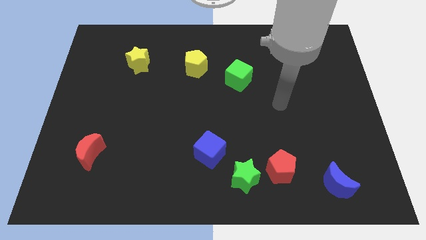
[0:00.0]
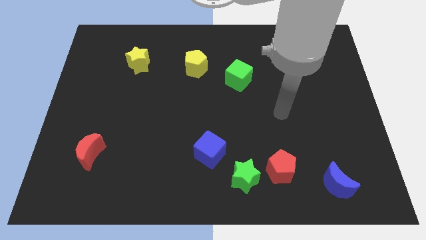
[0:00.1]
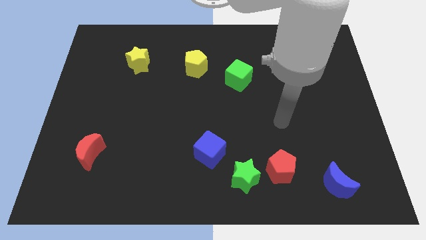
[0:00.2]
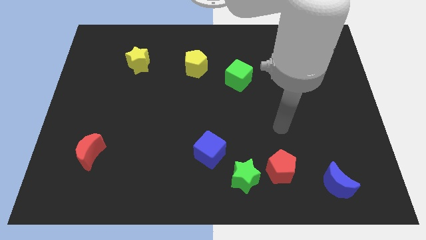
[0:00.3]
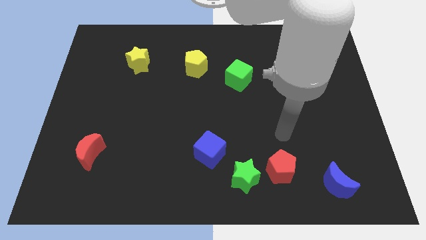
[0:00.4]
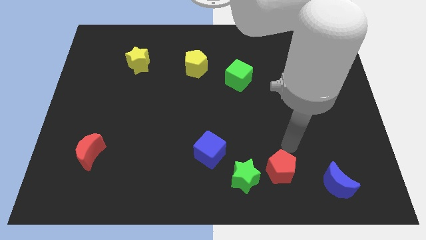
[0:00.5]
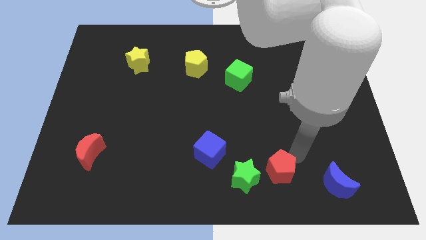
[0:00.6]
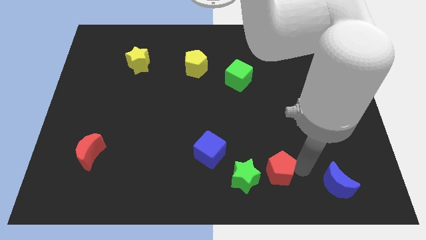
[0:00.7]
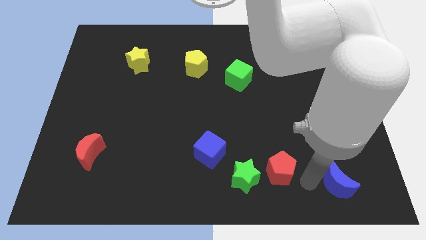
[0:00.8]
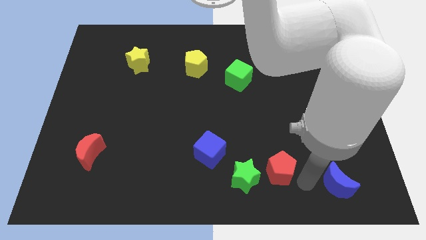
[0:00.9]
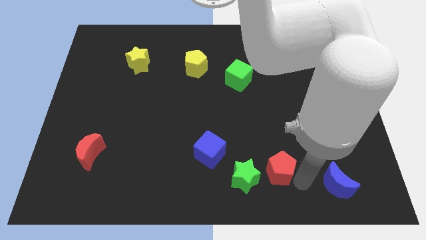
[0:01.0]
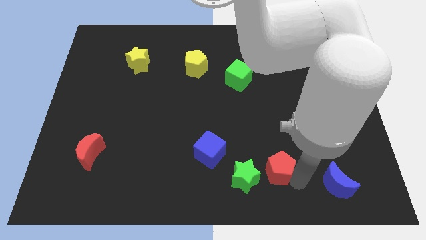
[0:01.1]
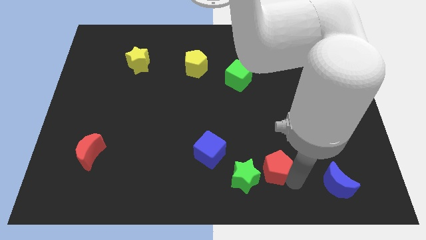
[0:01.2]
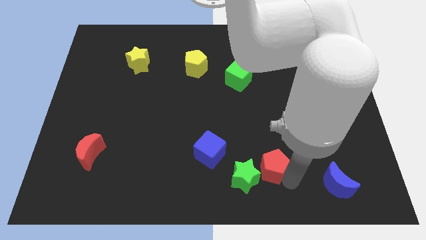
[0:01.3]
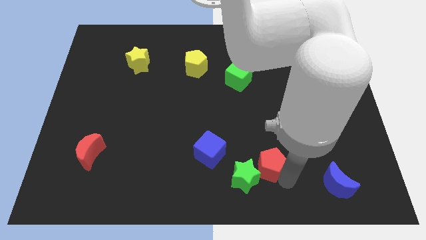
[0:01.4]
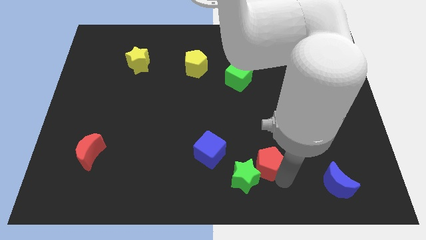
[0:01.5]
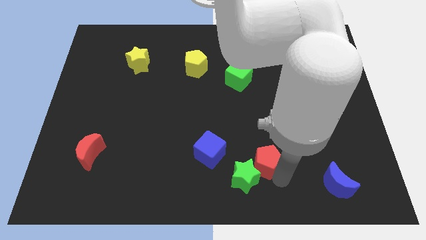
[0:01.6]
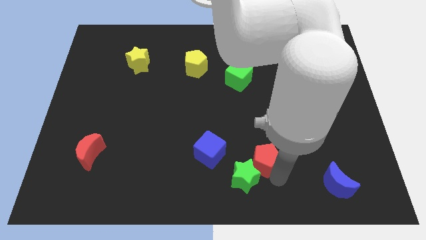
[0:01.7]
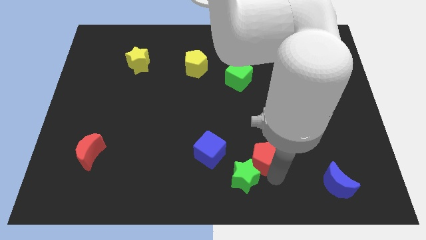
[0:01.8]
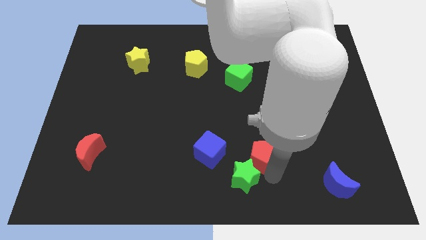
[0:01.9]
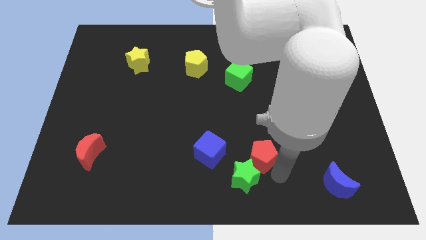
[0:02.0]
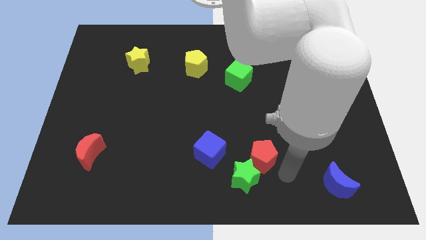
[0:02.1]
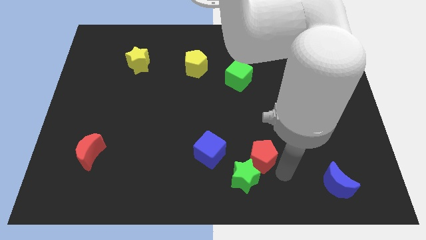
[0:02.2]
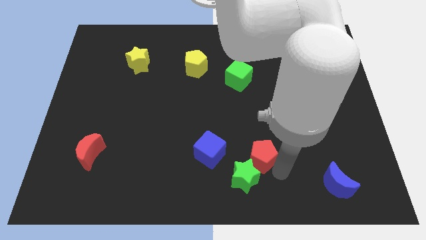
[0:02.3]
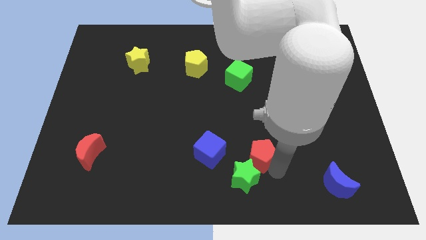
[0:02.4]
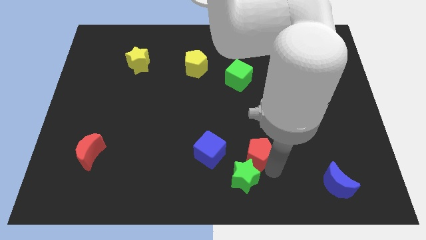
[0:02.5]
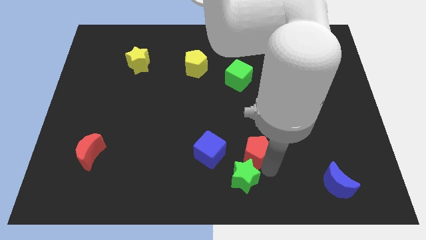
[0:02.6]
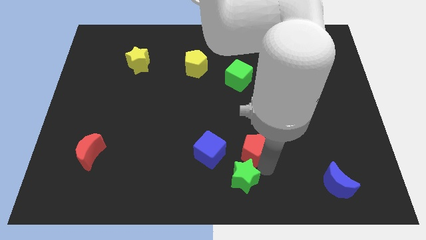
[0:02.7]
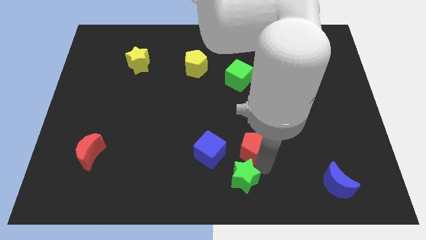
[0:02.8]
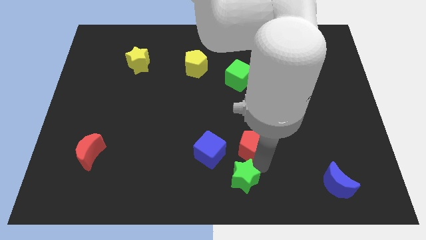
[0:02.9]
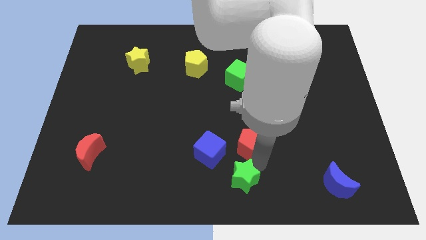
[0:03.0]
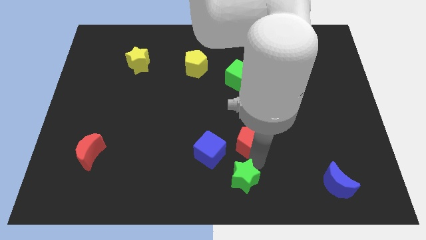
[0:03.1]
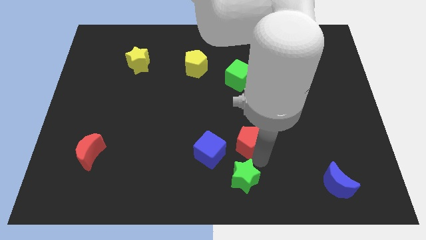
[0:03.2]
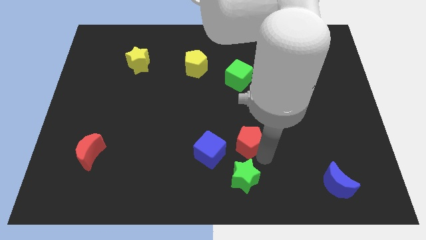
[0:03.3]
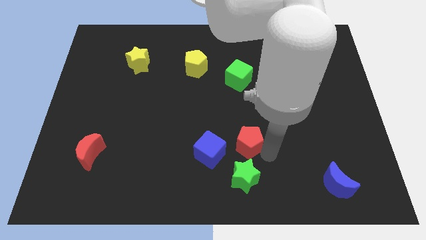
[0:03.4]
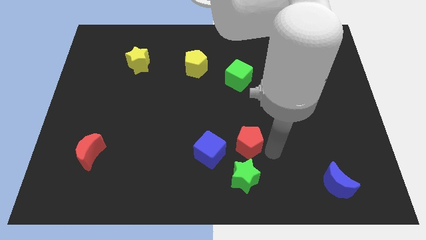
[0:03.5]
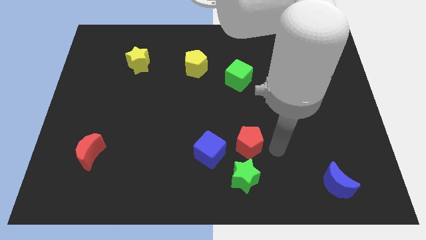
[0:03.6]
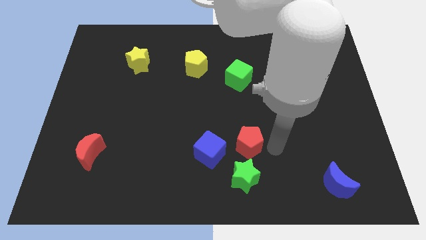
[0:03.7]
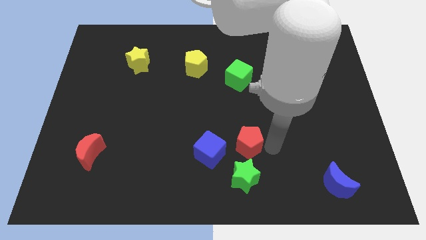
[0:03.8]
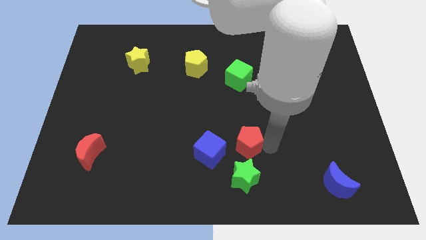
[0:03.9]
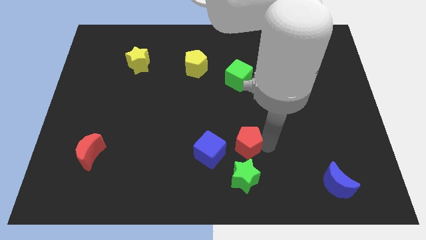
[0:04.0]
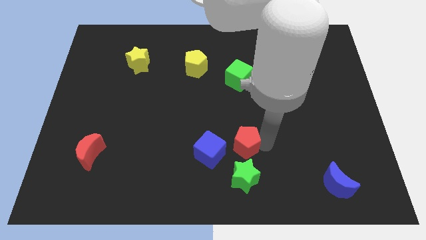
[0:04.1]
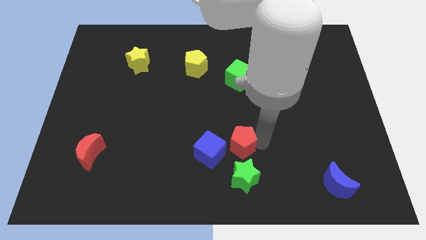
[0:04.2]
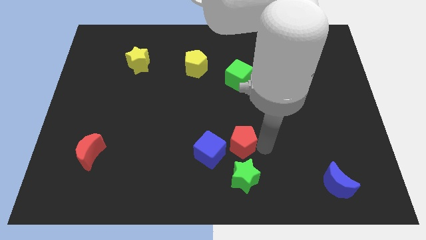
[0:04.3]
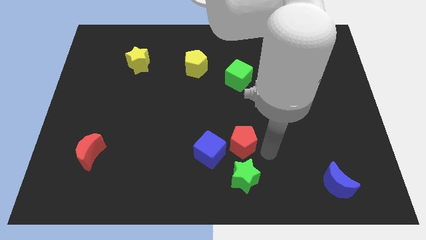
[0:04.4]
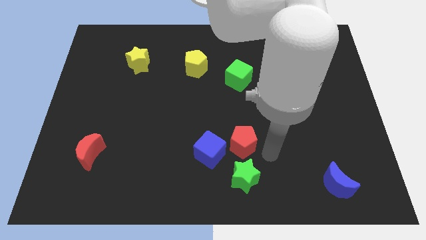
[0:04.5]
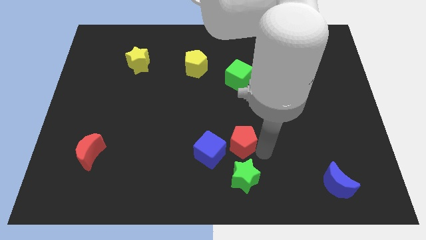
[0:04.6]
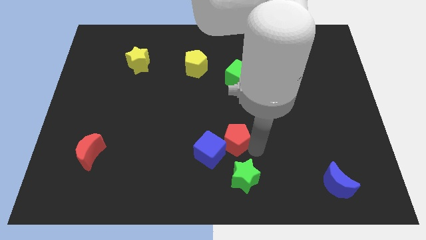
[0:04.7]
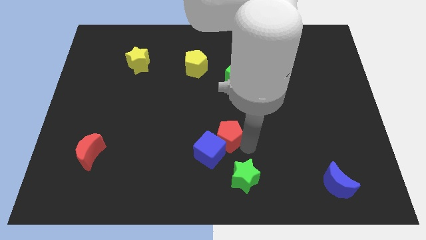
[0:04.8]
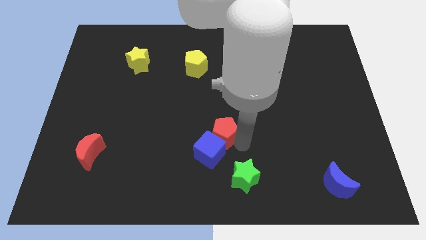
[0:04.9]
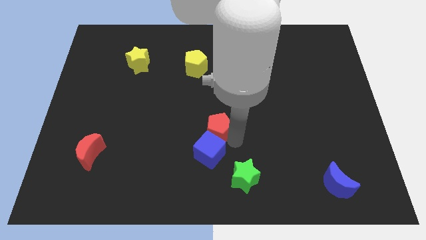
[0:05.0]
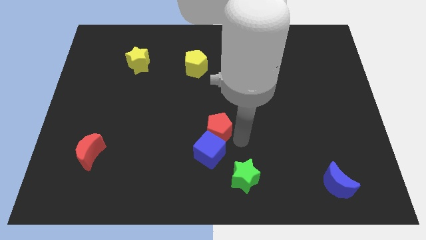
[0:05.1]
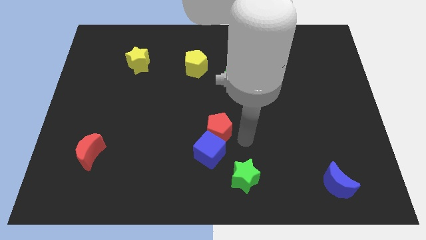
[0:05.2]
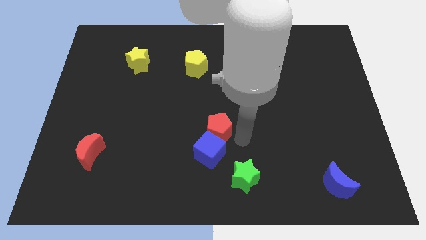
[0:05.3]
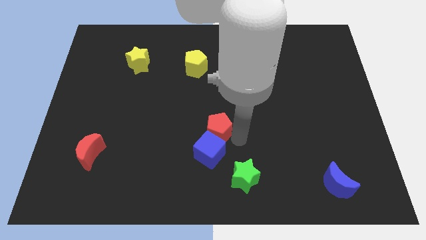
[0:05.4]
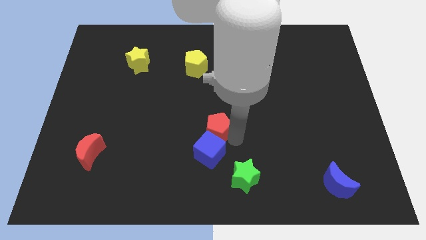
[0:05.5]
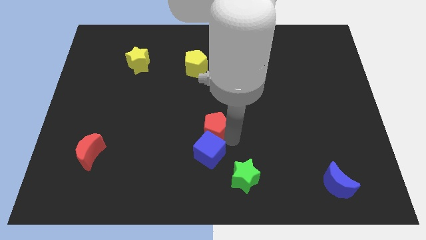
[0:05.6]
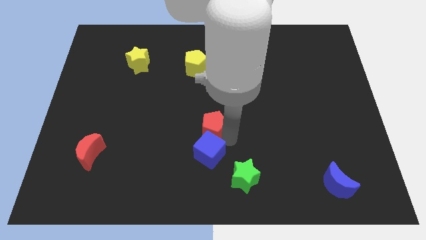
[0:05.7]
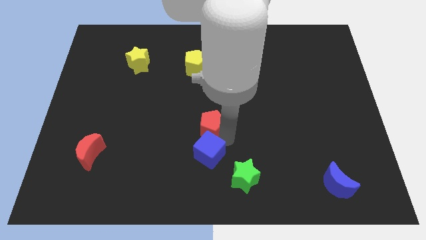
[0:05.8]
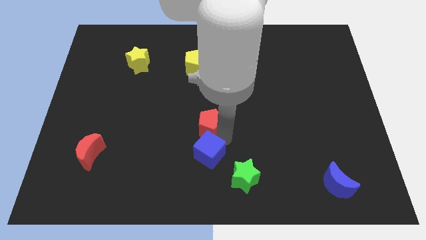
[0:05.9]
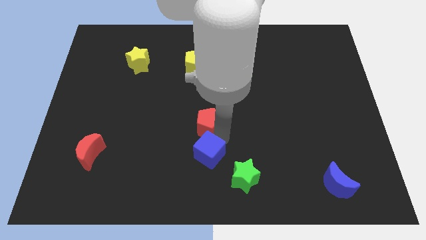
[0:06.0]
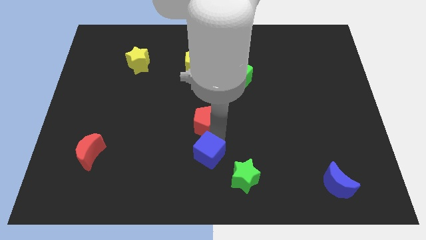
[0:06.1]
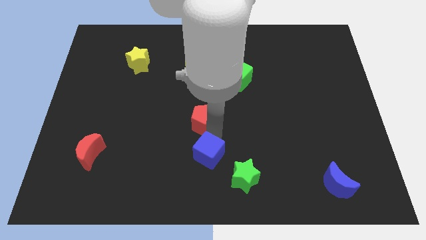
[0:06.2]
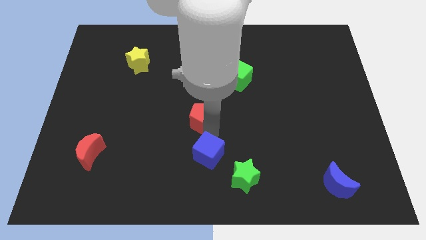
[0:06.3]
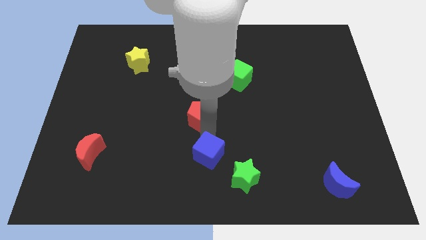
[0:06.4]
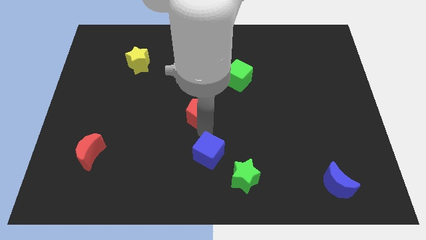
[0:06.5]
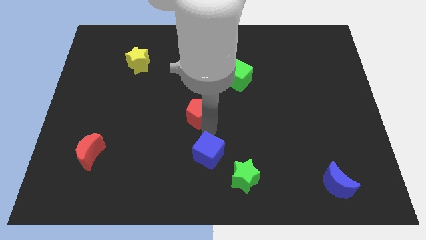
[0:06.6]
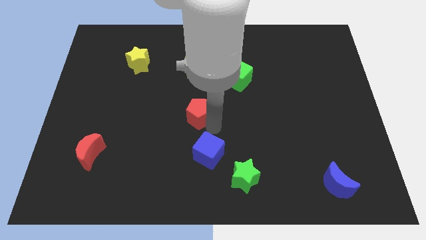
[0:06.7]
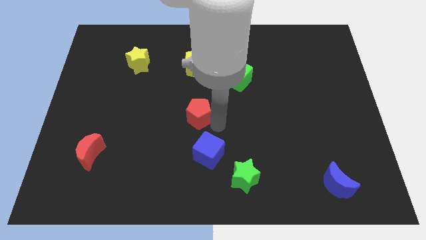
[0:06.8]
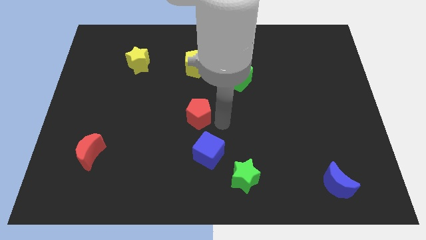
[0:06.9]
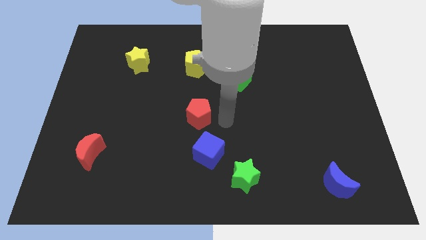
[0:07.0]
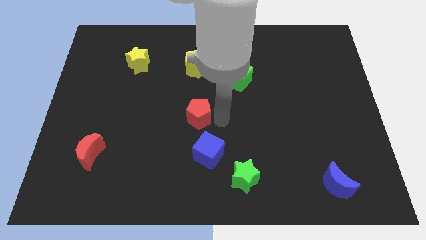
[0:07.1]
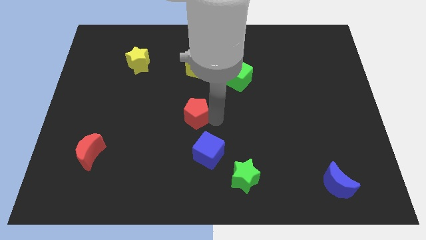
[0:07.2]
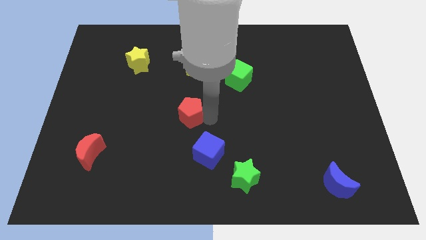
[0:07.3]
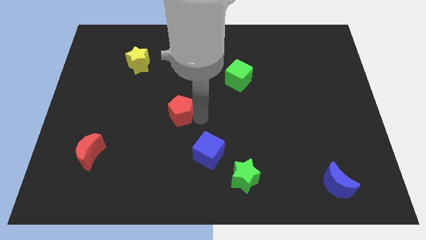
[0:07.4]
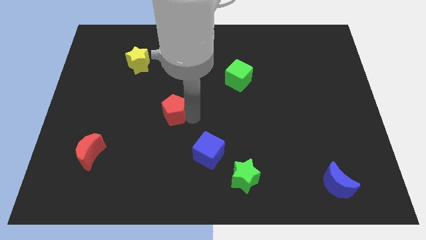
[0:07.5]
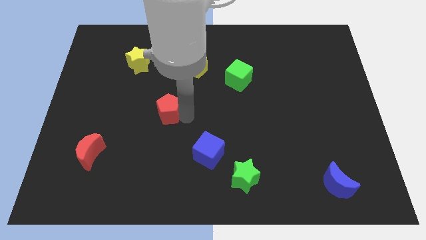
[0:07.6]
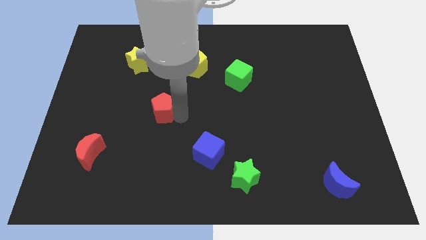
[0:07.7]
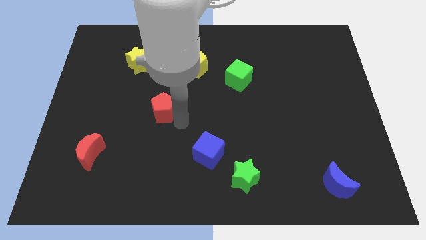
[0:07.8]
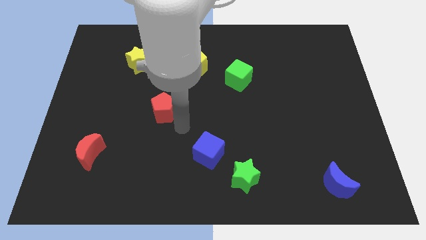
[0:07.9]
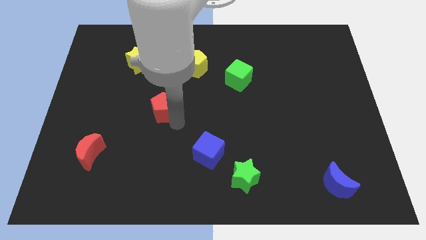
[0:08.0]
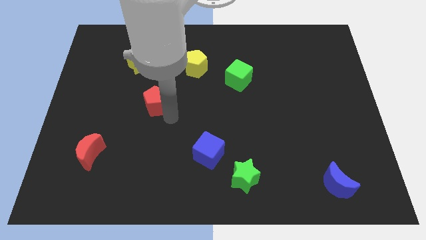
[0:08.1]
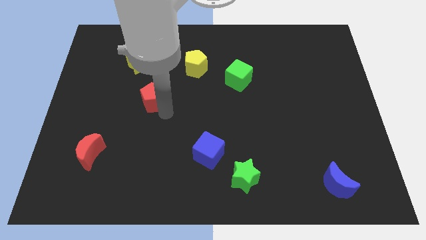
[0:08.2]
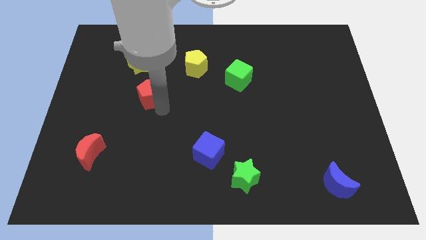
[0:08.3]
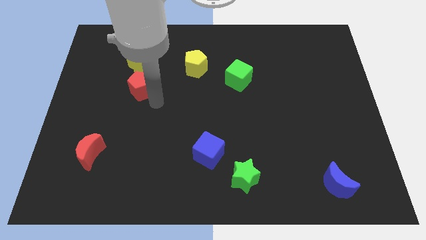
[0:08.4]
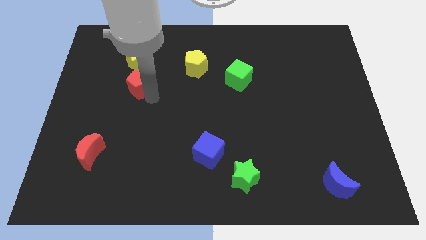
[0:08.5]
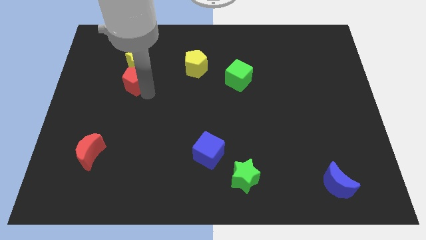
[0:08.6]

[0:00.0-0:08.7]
push the red pentagon to the bottom left of the yellow star
